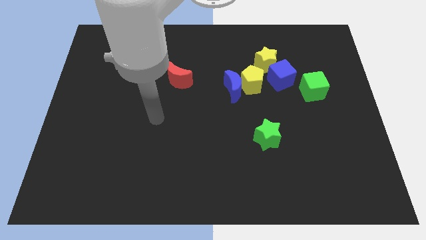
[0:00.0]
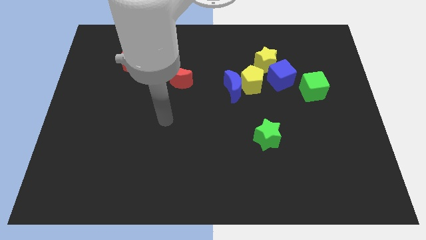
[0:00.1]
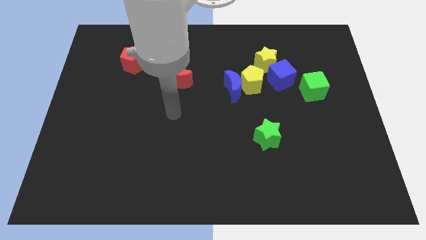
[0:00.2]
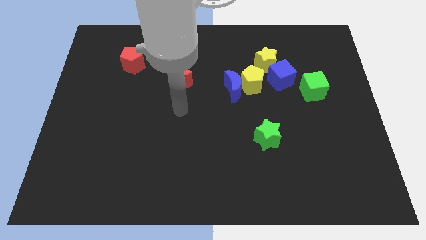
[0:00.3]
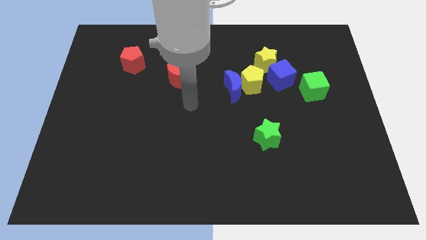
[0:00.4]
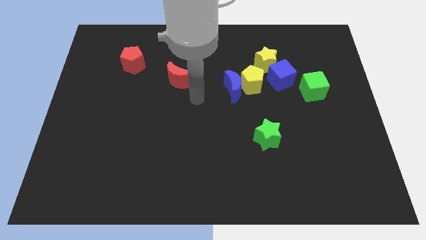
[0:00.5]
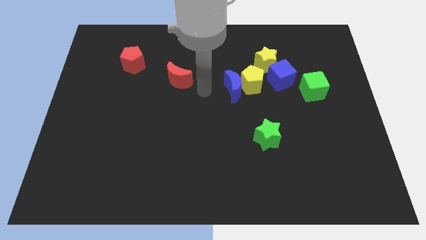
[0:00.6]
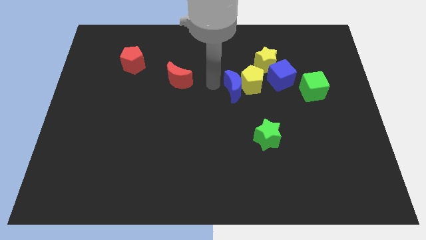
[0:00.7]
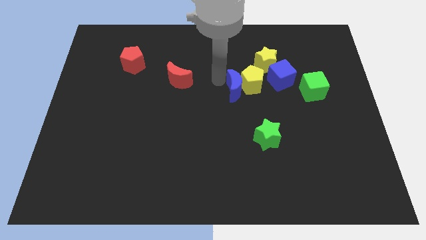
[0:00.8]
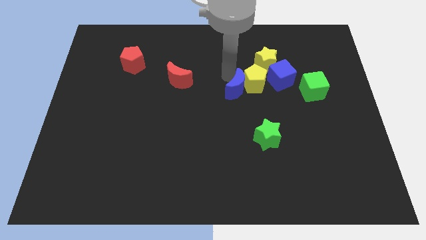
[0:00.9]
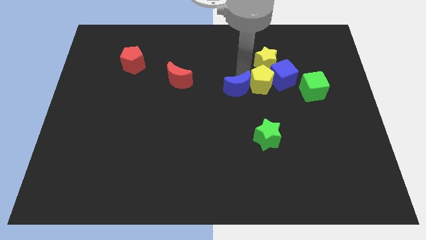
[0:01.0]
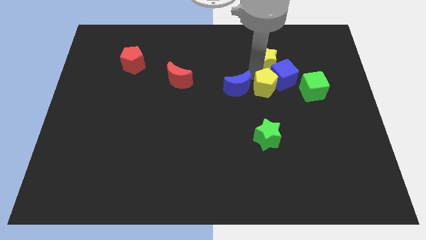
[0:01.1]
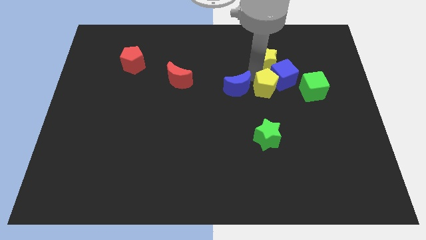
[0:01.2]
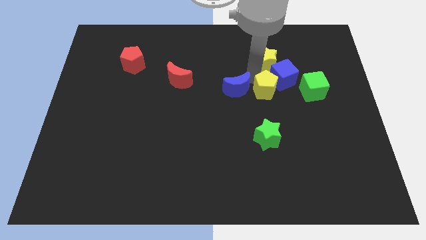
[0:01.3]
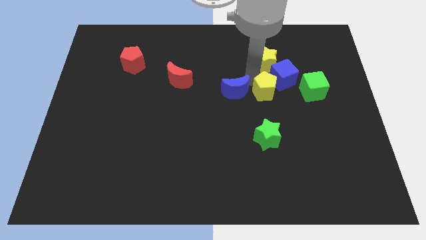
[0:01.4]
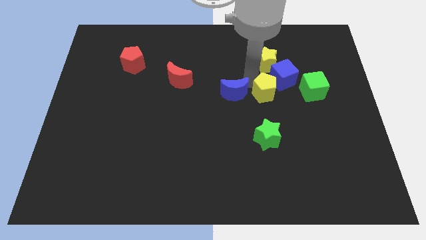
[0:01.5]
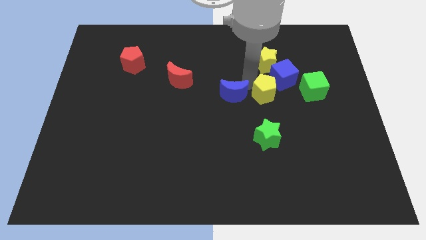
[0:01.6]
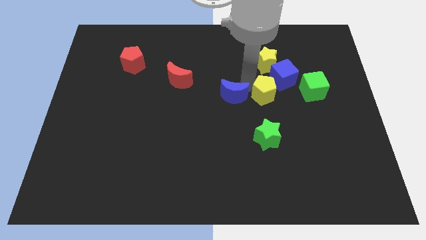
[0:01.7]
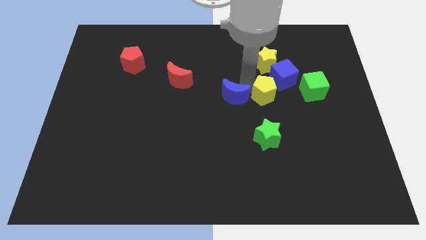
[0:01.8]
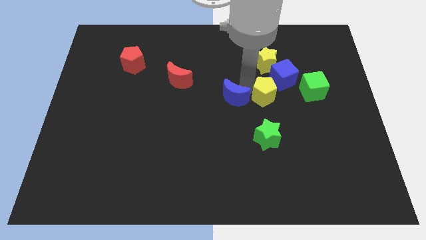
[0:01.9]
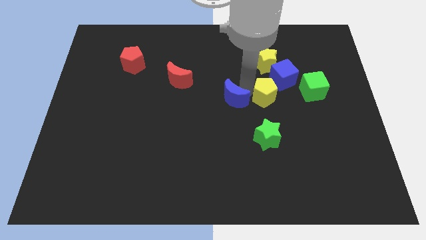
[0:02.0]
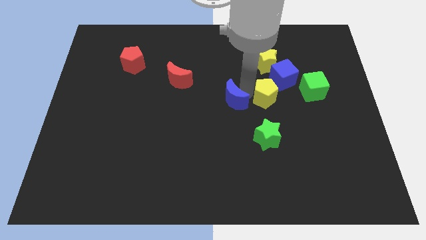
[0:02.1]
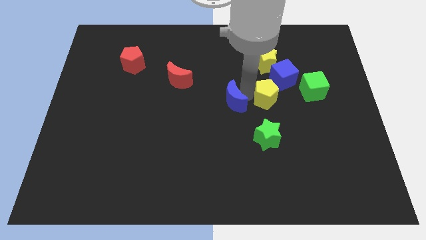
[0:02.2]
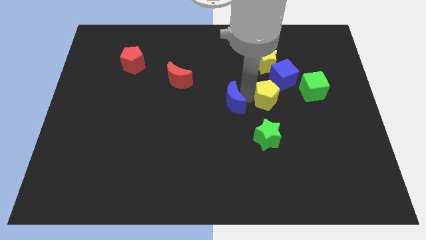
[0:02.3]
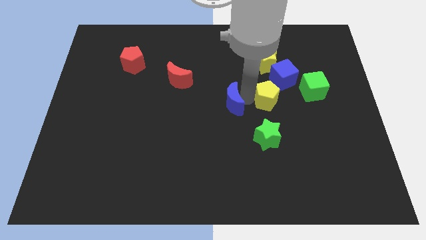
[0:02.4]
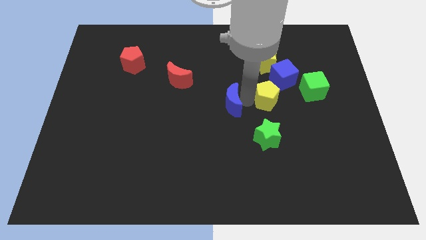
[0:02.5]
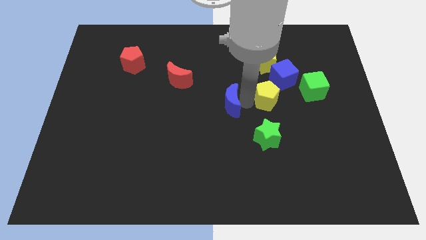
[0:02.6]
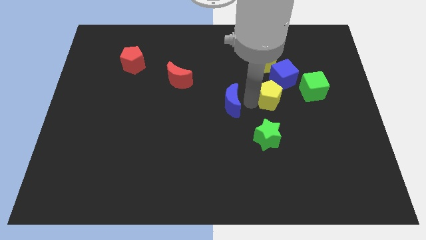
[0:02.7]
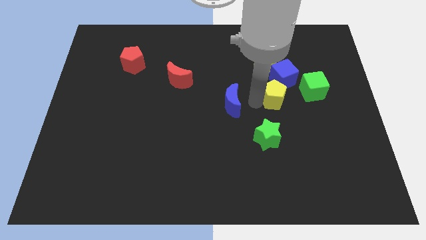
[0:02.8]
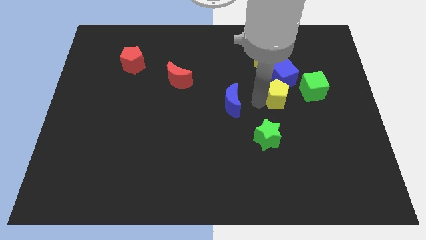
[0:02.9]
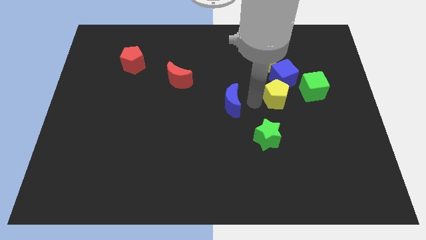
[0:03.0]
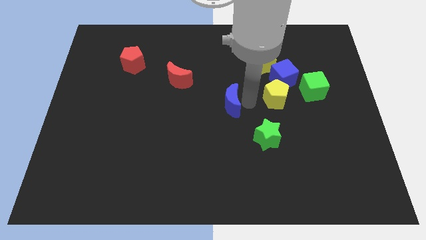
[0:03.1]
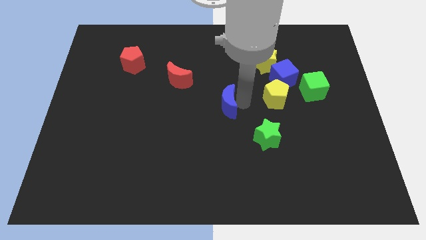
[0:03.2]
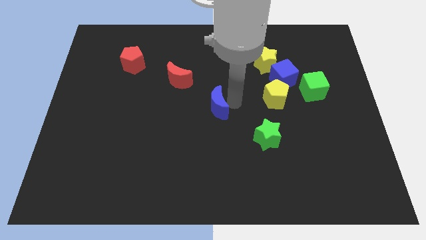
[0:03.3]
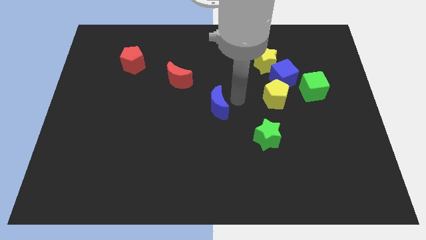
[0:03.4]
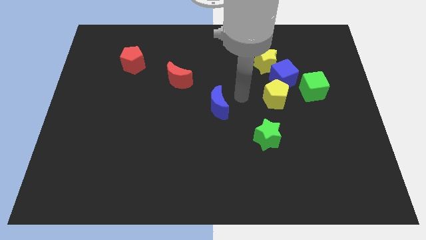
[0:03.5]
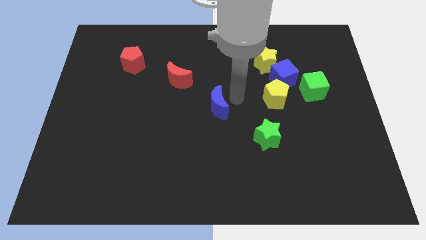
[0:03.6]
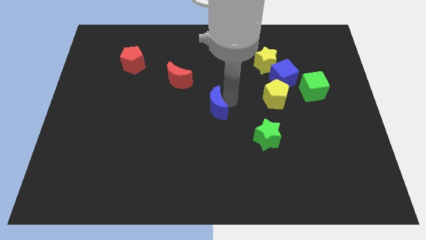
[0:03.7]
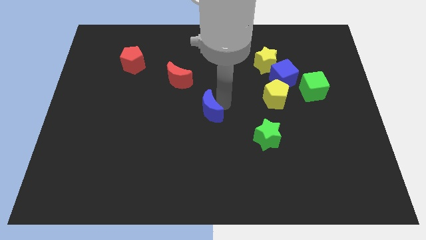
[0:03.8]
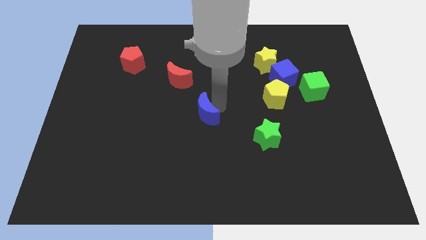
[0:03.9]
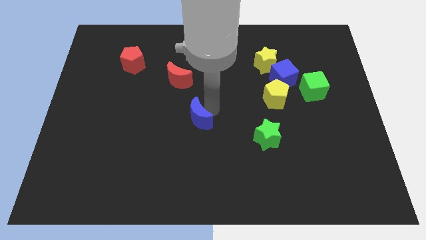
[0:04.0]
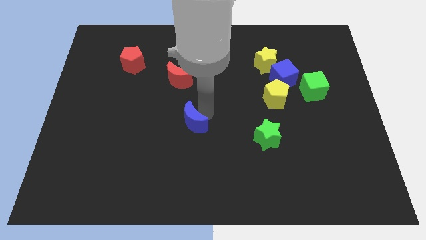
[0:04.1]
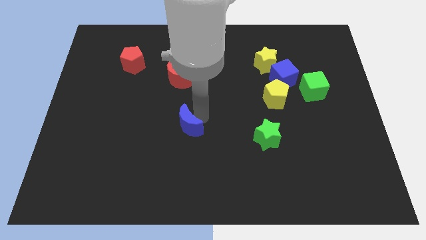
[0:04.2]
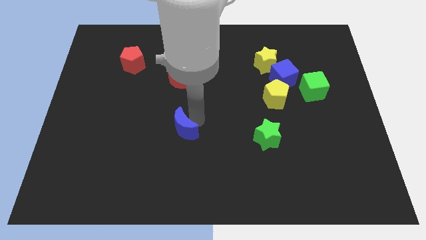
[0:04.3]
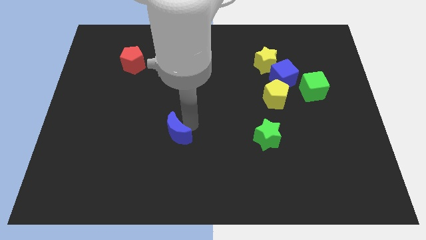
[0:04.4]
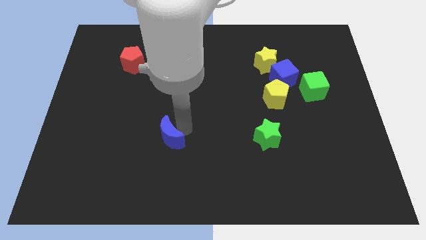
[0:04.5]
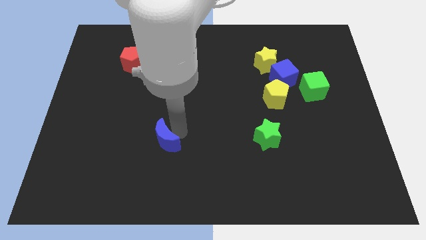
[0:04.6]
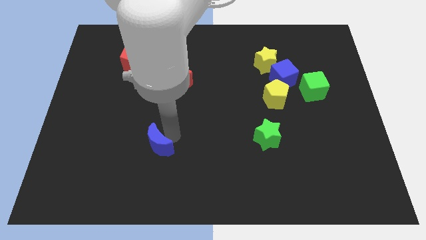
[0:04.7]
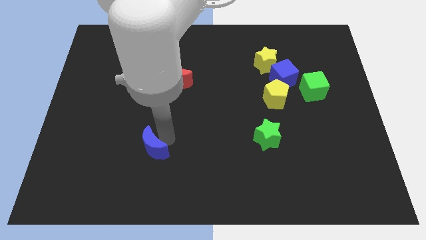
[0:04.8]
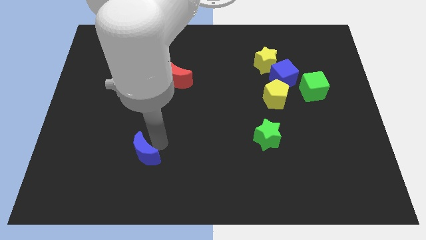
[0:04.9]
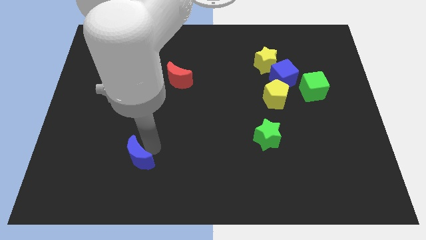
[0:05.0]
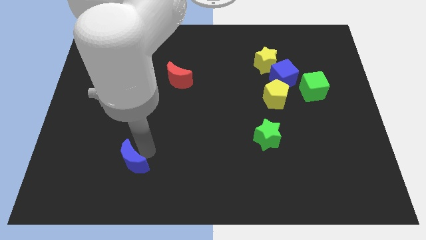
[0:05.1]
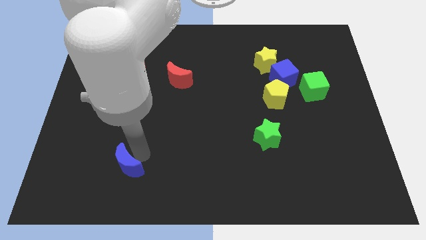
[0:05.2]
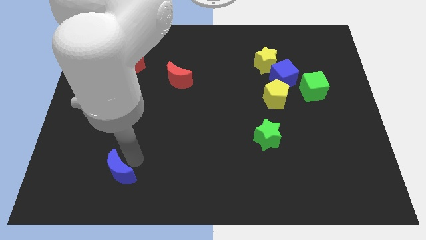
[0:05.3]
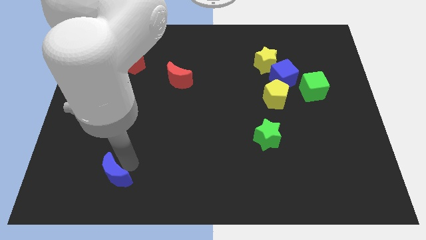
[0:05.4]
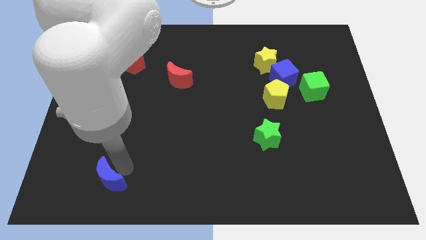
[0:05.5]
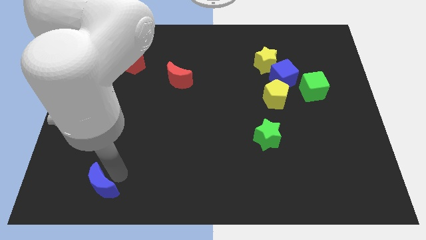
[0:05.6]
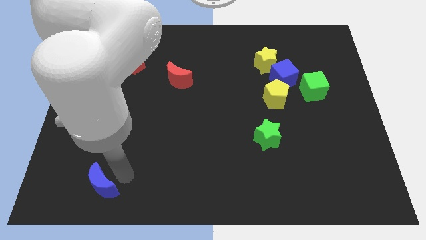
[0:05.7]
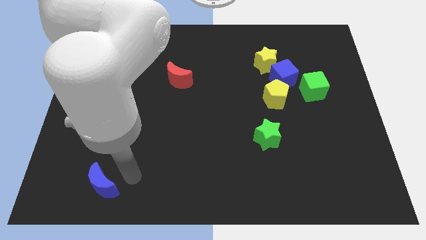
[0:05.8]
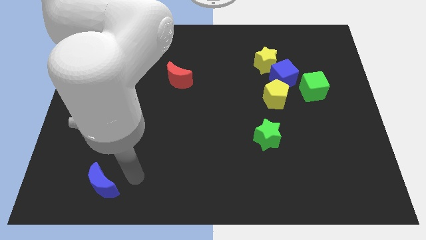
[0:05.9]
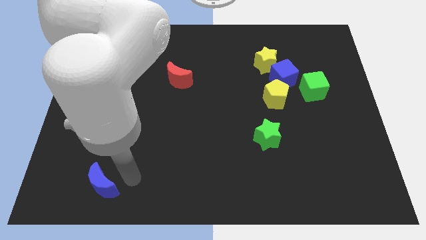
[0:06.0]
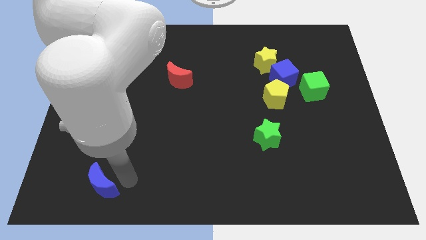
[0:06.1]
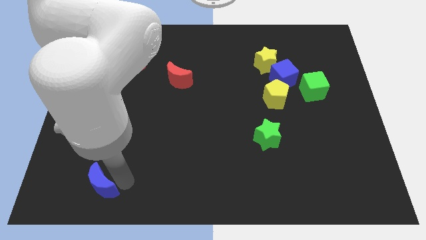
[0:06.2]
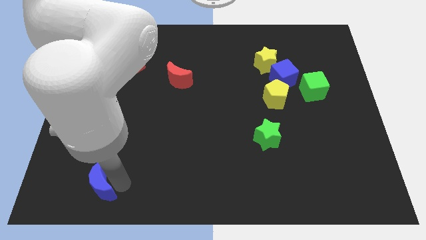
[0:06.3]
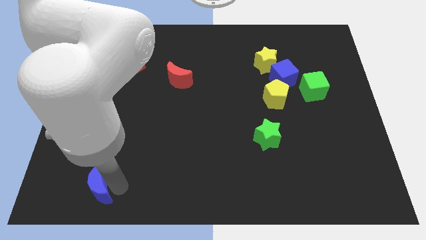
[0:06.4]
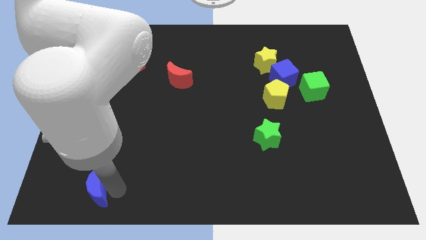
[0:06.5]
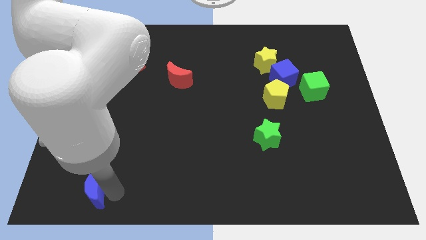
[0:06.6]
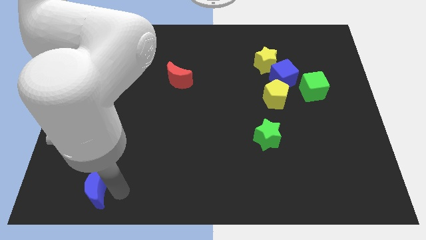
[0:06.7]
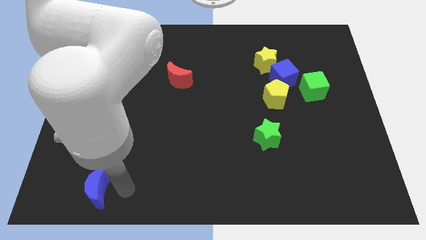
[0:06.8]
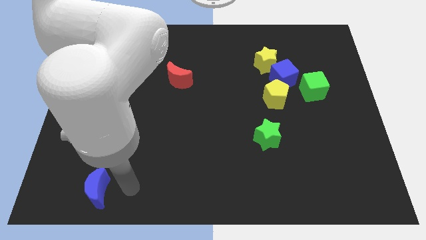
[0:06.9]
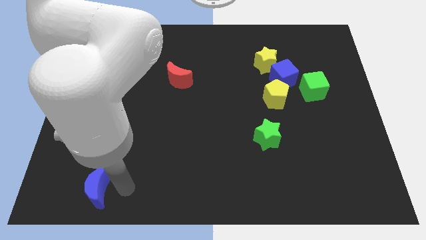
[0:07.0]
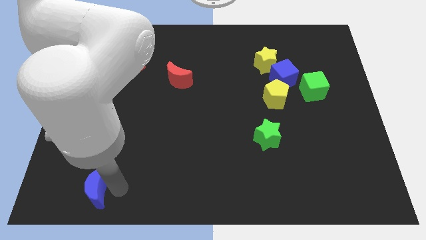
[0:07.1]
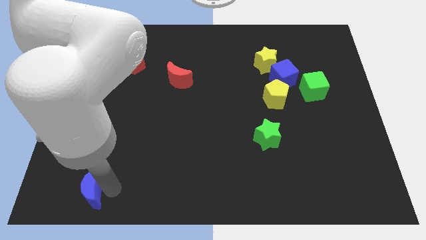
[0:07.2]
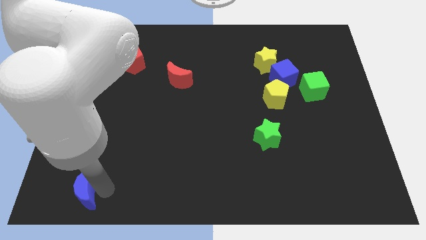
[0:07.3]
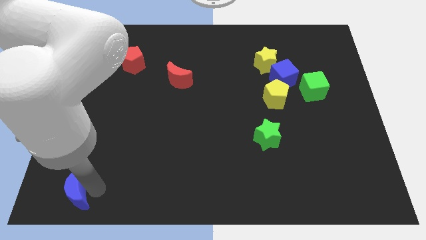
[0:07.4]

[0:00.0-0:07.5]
move the blue moon to the bottom left of the board
